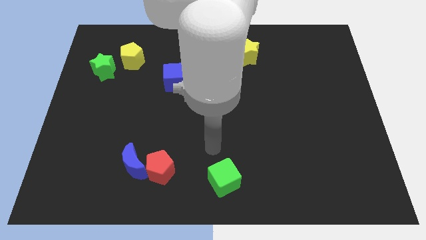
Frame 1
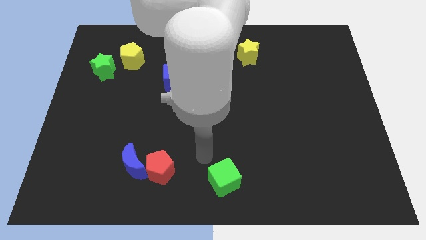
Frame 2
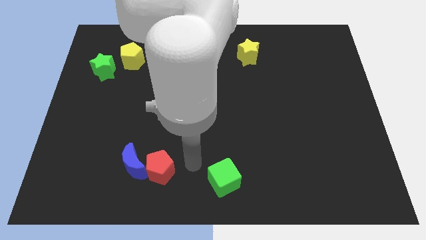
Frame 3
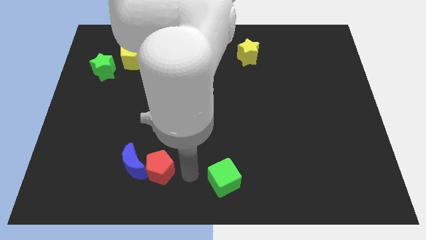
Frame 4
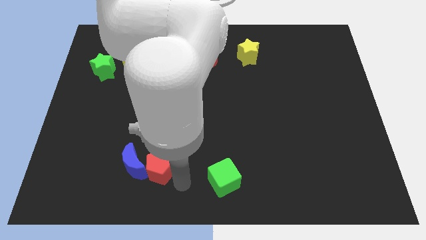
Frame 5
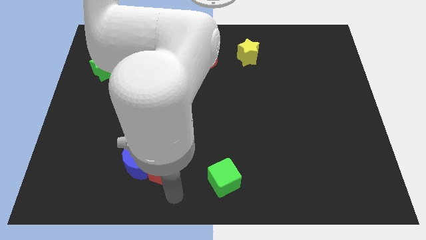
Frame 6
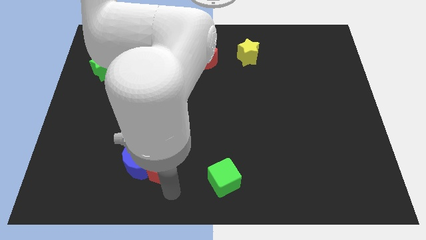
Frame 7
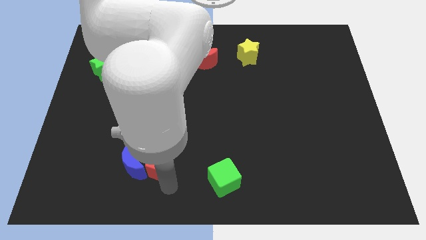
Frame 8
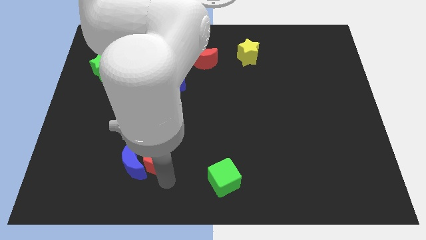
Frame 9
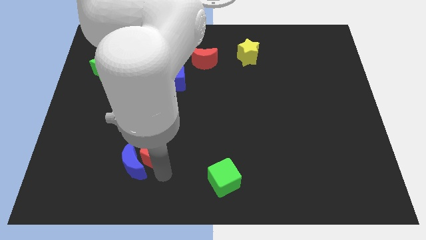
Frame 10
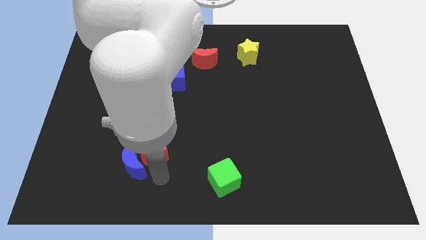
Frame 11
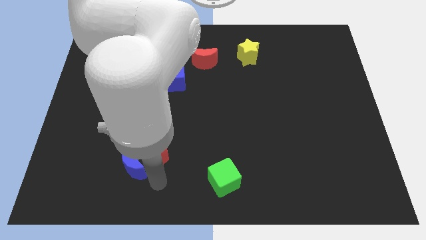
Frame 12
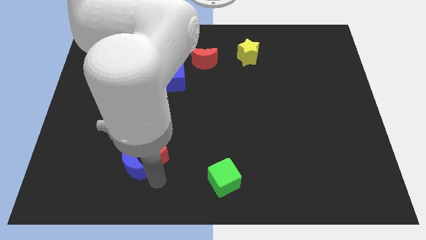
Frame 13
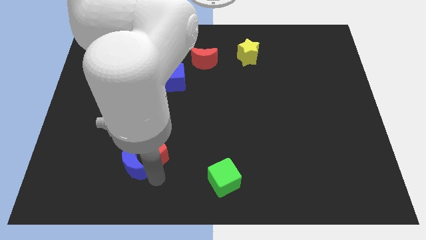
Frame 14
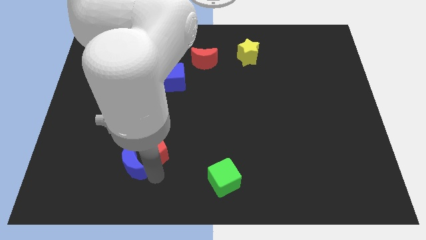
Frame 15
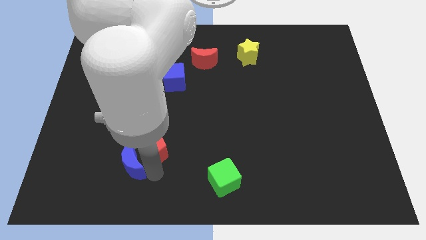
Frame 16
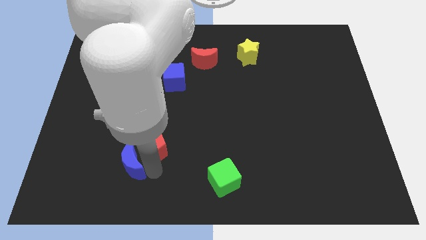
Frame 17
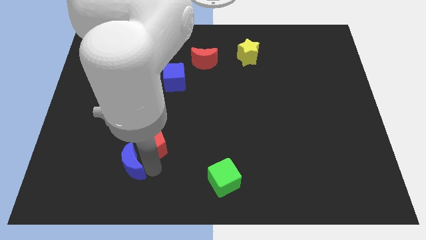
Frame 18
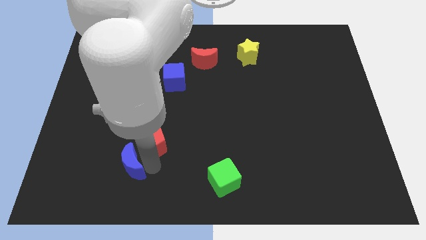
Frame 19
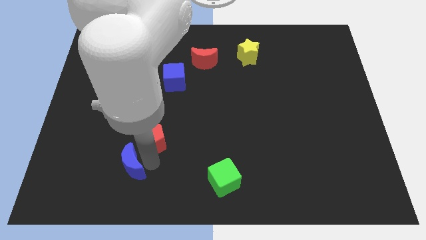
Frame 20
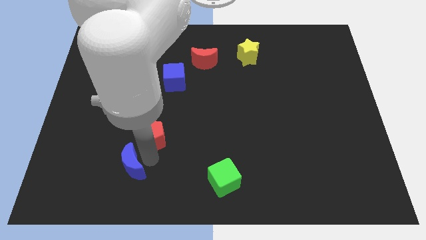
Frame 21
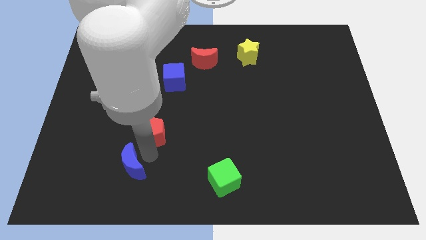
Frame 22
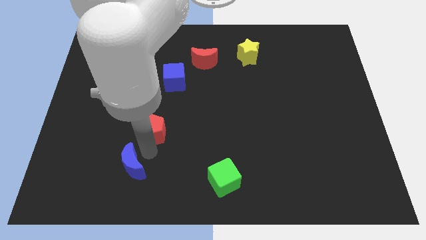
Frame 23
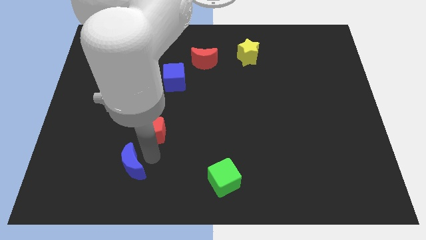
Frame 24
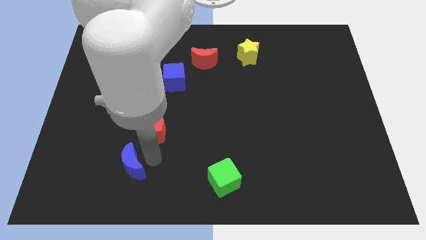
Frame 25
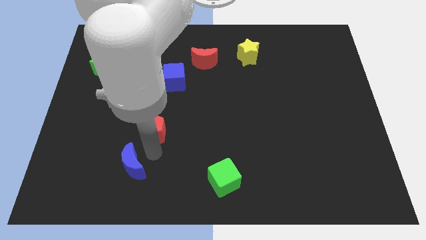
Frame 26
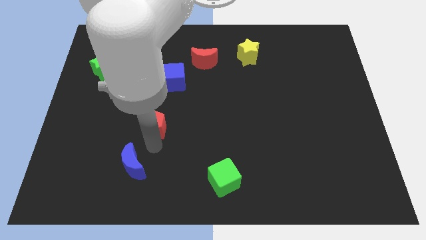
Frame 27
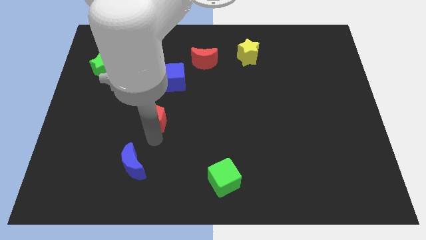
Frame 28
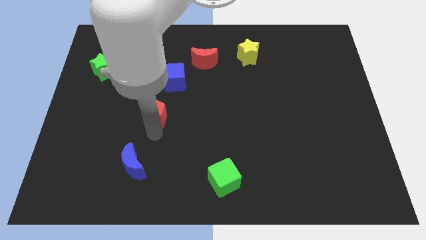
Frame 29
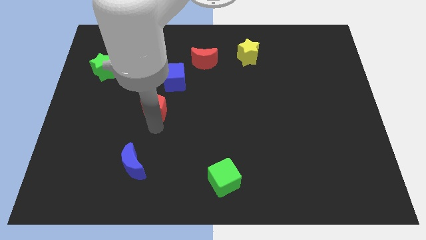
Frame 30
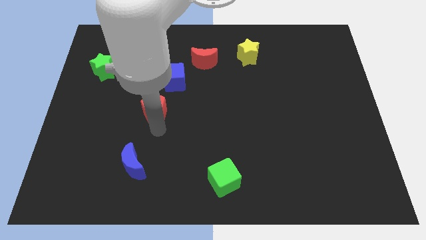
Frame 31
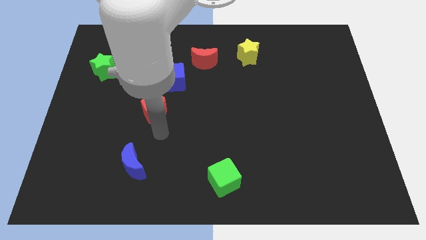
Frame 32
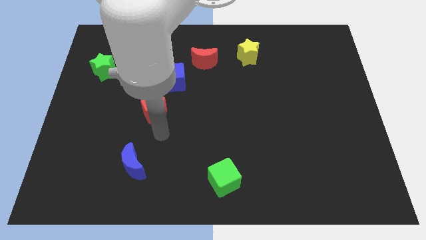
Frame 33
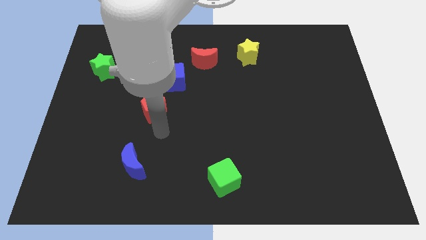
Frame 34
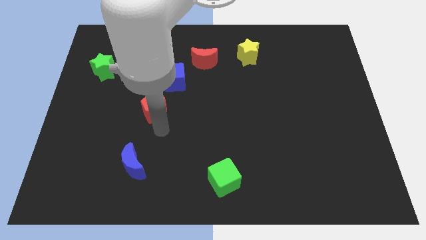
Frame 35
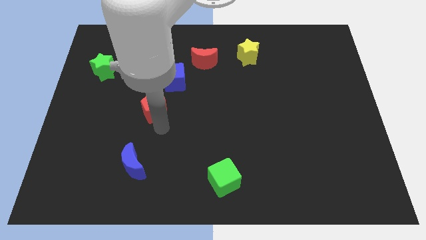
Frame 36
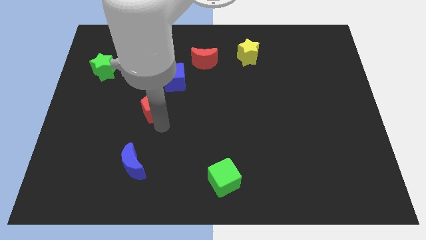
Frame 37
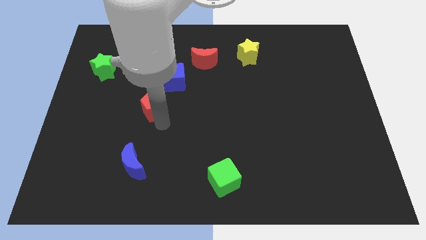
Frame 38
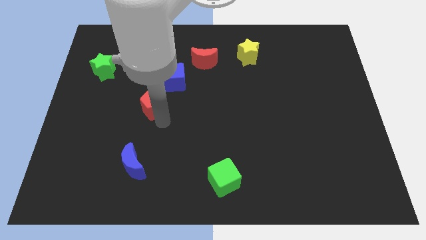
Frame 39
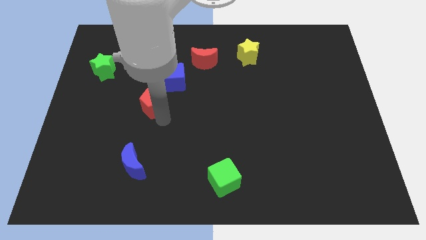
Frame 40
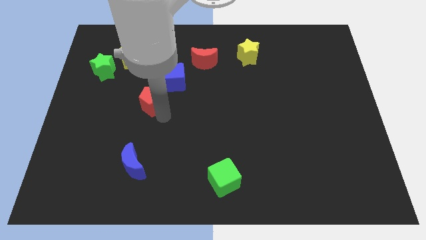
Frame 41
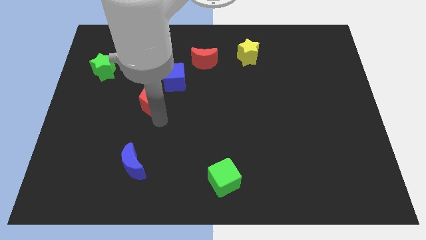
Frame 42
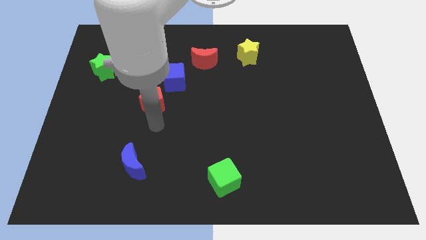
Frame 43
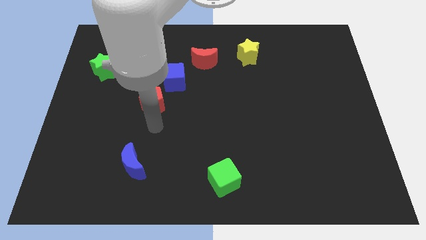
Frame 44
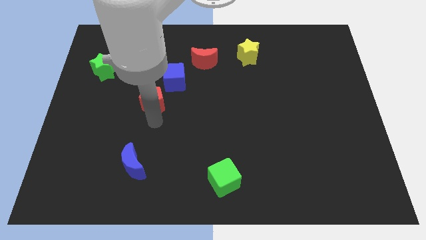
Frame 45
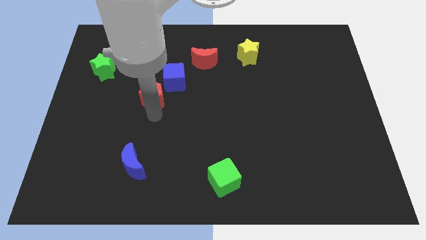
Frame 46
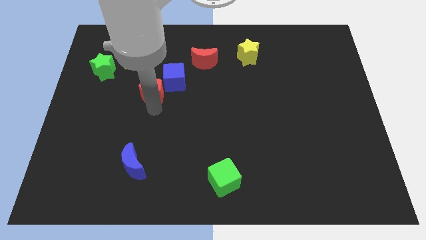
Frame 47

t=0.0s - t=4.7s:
slide the red pentagon up

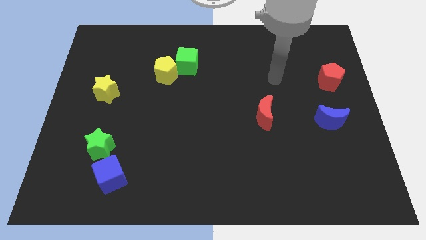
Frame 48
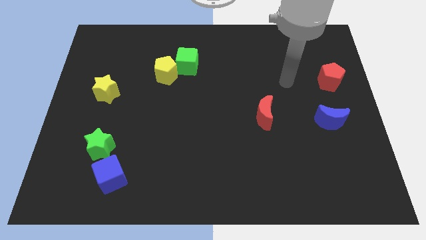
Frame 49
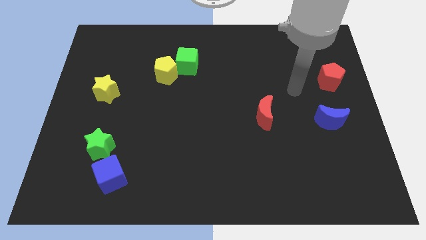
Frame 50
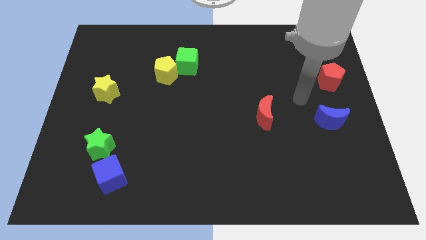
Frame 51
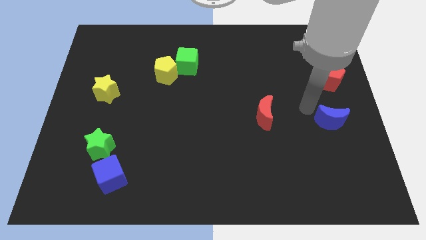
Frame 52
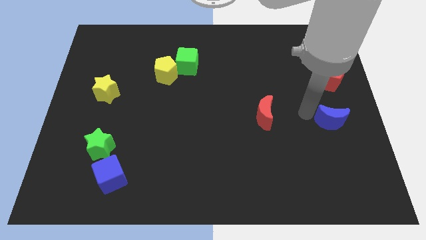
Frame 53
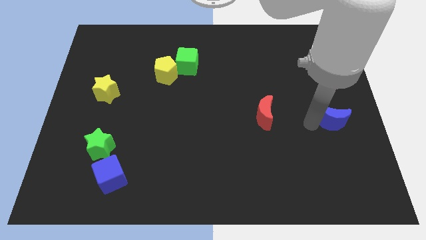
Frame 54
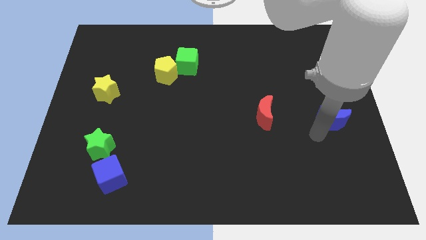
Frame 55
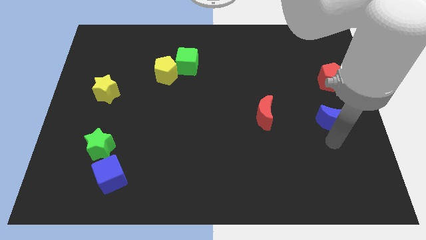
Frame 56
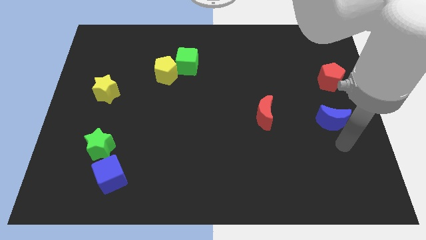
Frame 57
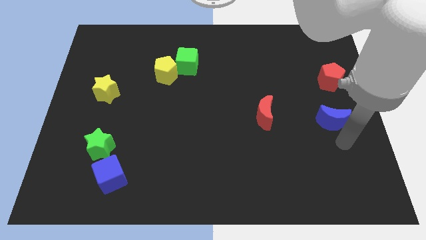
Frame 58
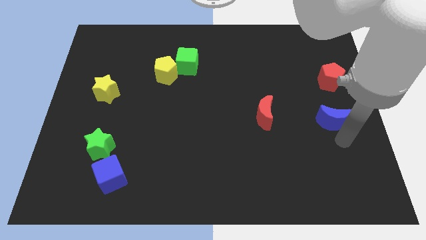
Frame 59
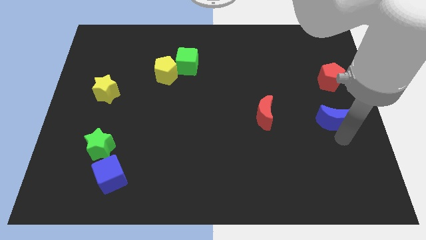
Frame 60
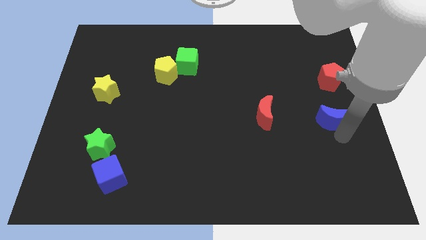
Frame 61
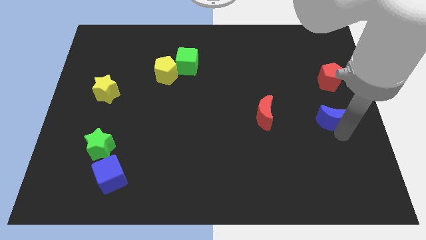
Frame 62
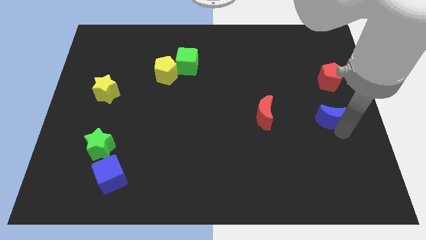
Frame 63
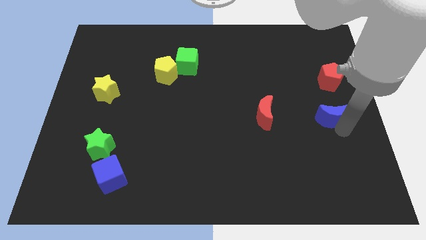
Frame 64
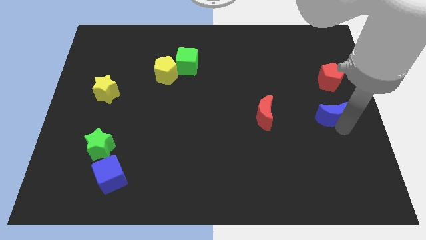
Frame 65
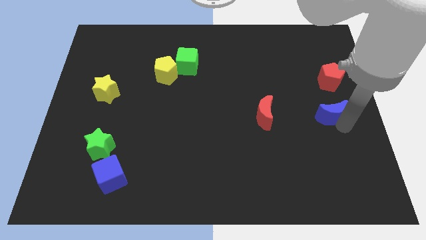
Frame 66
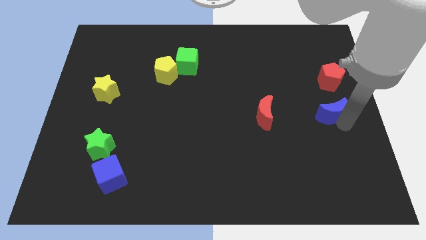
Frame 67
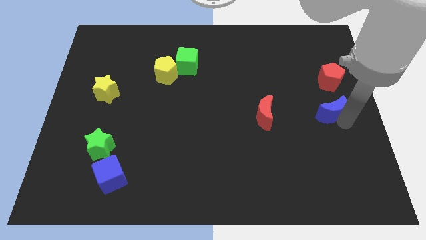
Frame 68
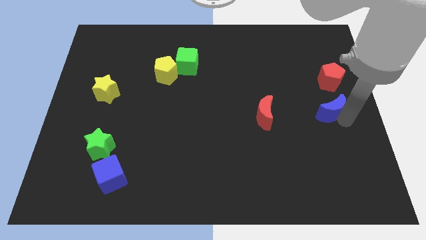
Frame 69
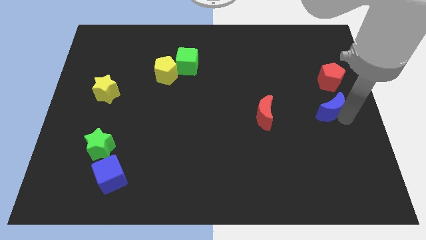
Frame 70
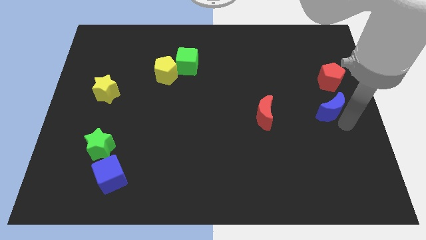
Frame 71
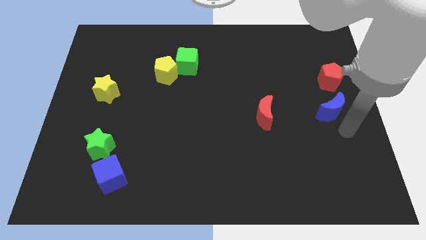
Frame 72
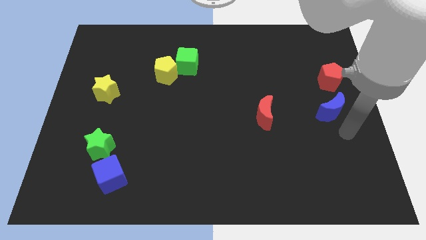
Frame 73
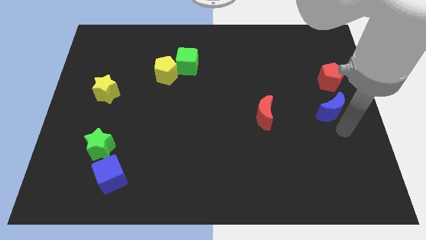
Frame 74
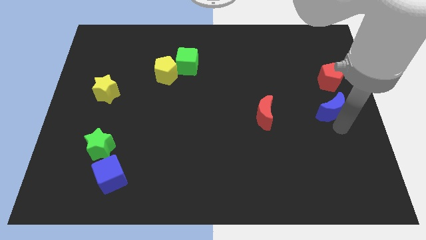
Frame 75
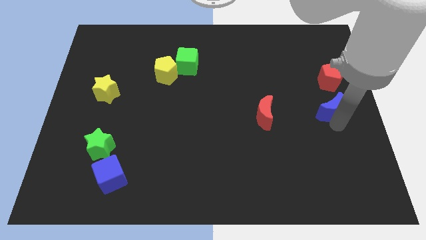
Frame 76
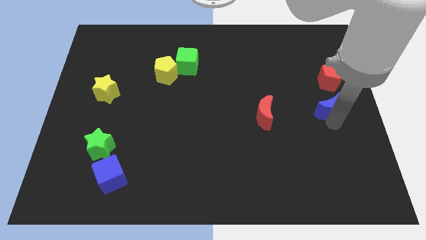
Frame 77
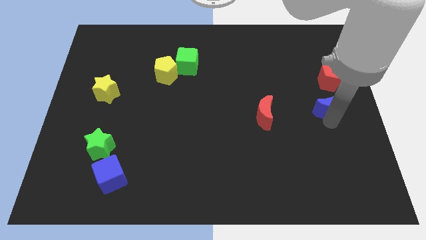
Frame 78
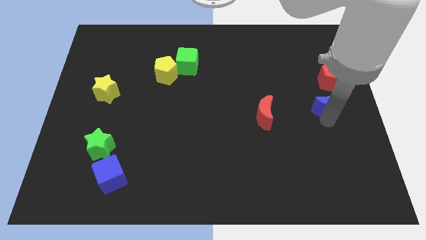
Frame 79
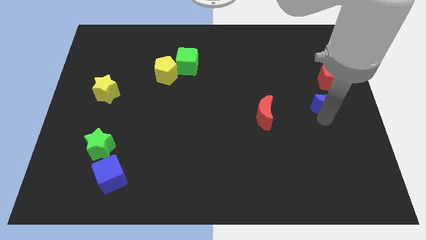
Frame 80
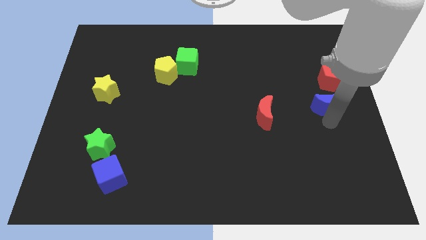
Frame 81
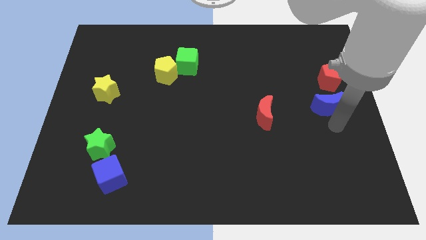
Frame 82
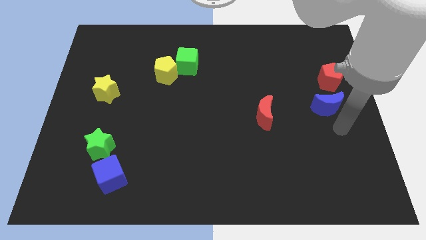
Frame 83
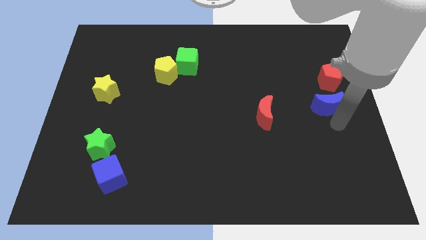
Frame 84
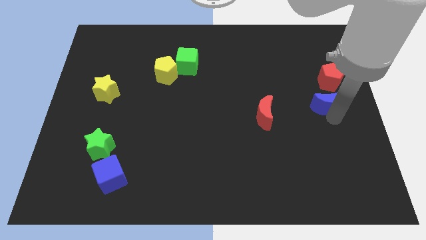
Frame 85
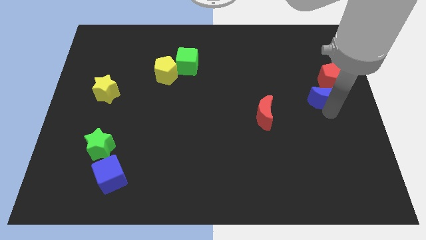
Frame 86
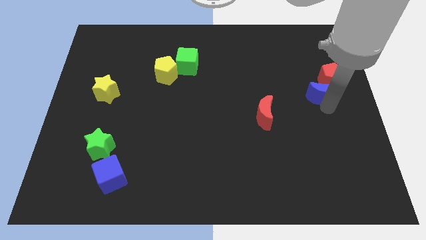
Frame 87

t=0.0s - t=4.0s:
move the blue moon up a bit
